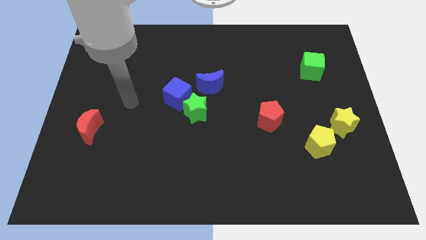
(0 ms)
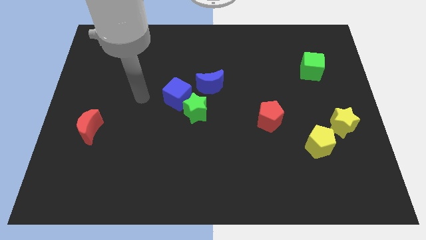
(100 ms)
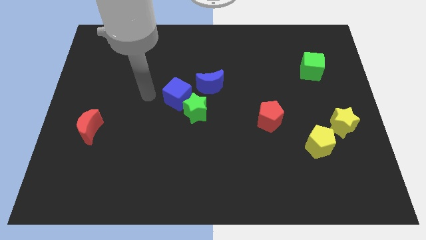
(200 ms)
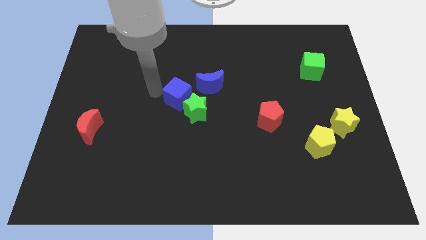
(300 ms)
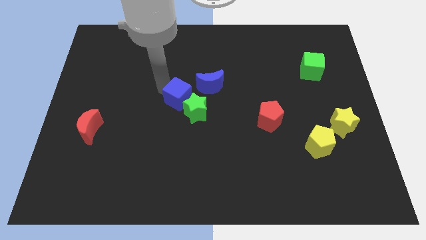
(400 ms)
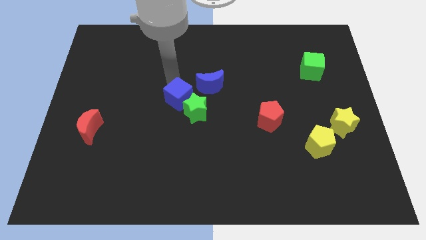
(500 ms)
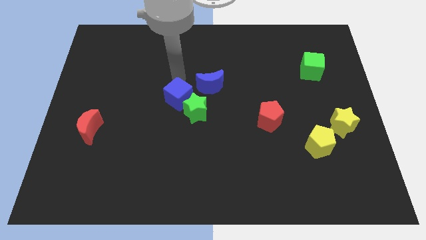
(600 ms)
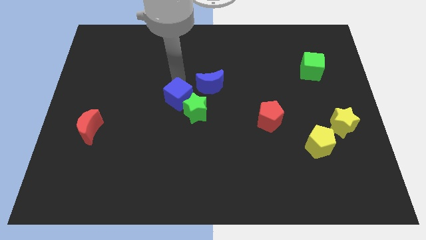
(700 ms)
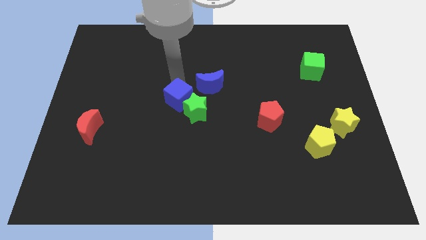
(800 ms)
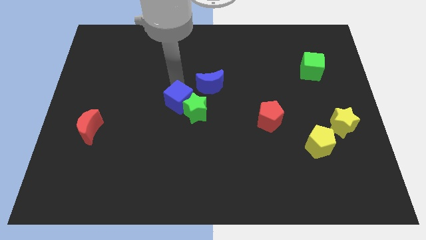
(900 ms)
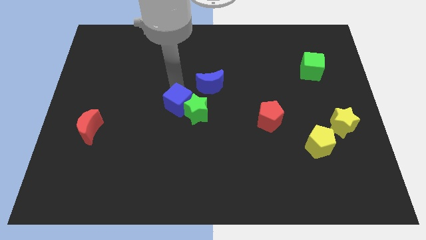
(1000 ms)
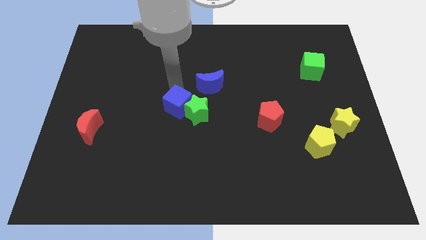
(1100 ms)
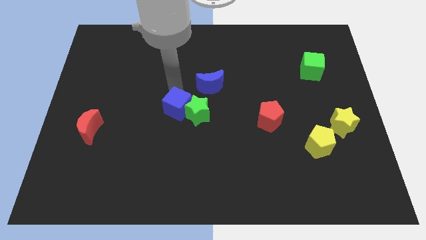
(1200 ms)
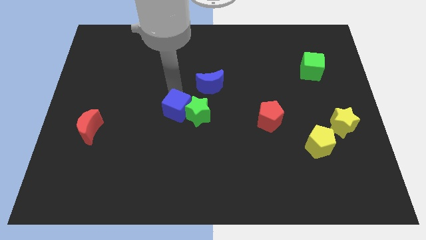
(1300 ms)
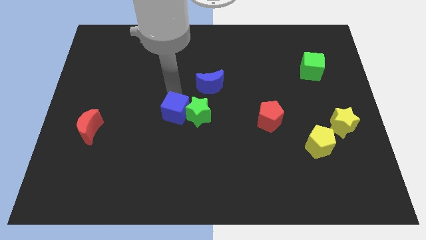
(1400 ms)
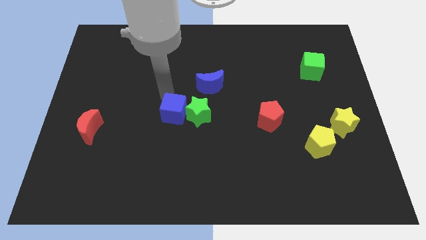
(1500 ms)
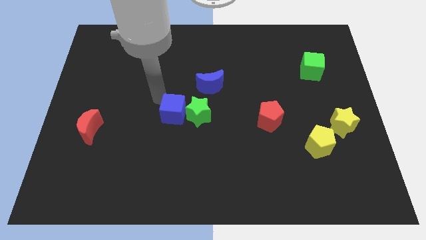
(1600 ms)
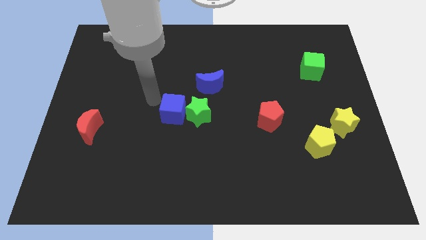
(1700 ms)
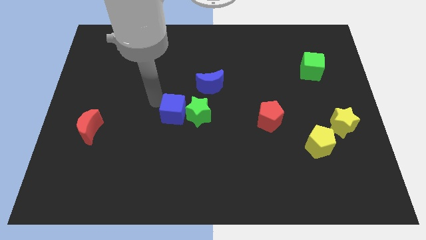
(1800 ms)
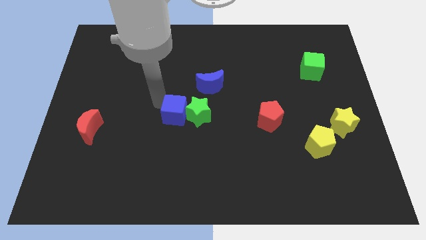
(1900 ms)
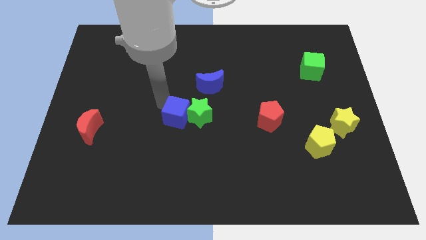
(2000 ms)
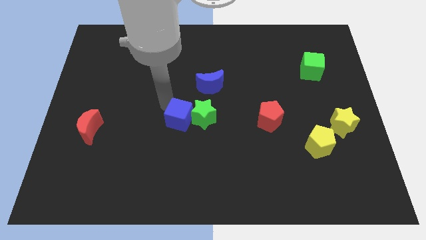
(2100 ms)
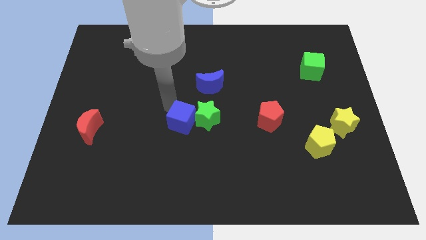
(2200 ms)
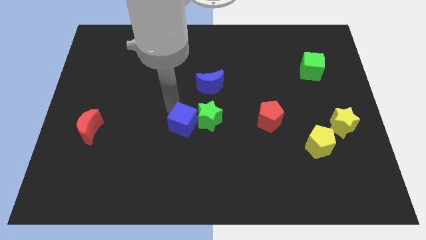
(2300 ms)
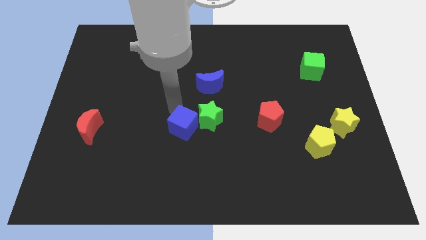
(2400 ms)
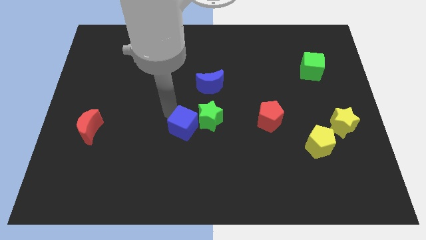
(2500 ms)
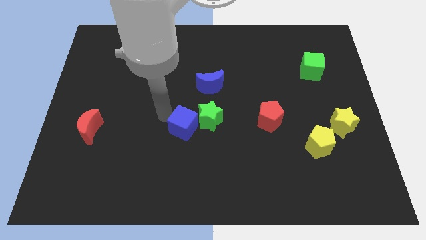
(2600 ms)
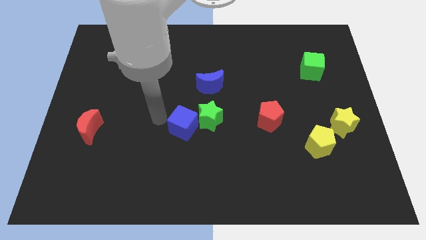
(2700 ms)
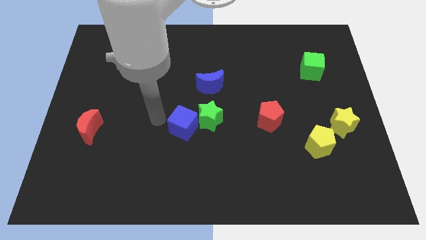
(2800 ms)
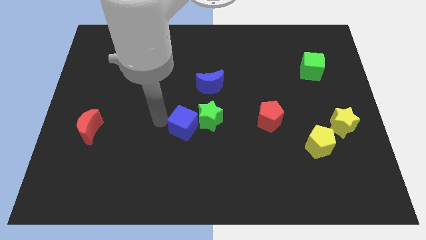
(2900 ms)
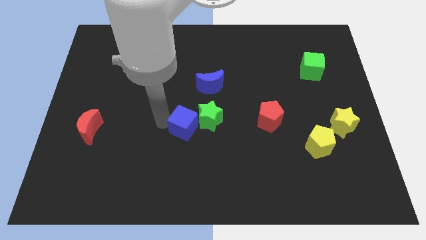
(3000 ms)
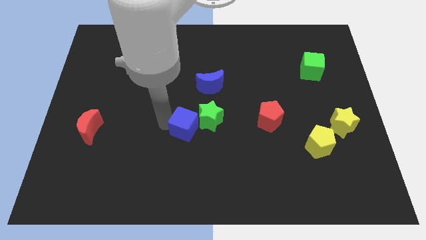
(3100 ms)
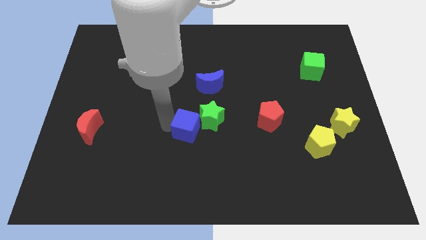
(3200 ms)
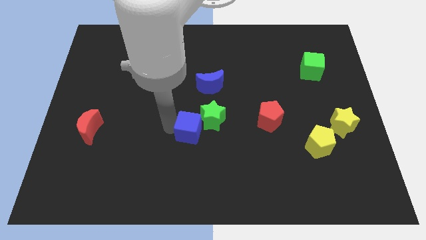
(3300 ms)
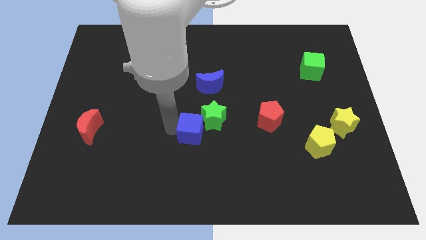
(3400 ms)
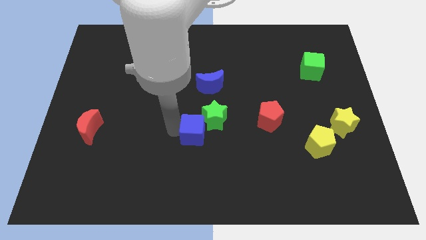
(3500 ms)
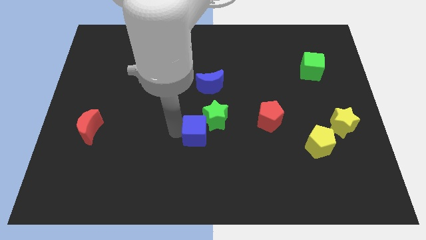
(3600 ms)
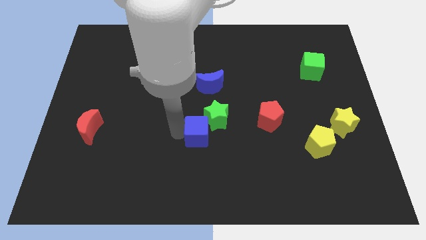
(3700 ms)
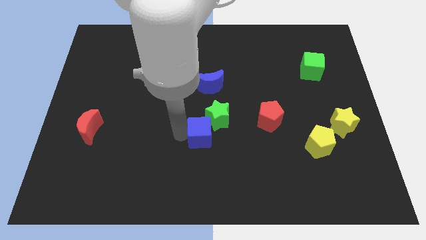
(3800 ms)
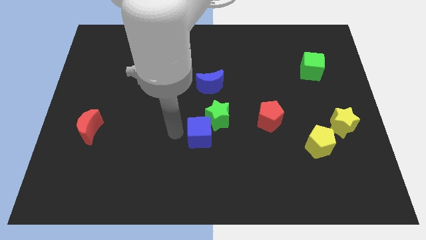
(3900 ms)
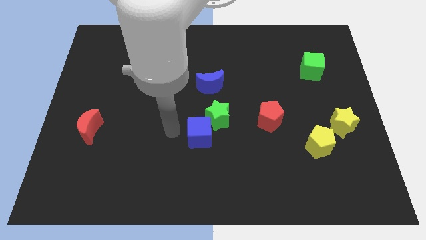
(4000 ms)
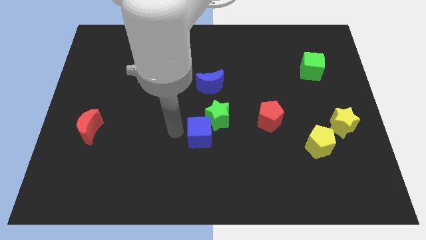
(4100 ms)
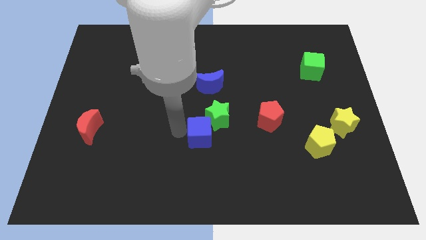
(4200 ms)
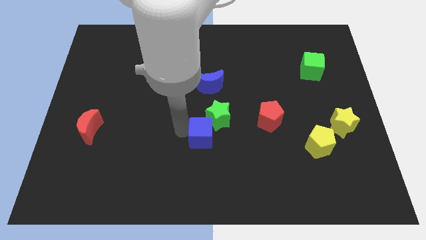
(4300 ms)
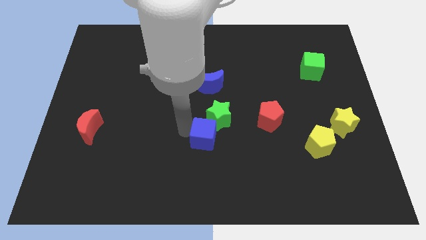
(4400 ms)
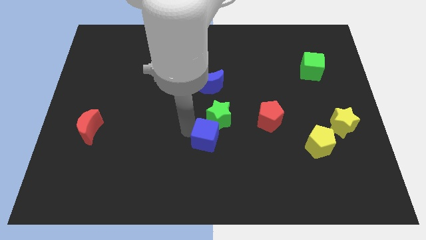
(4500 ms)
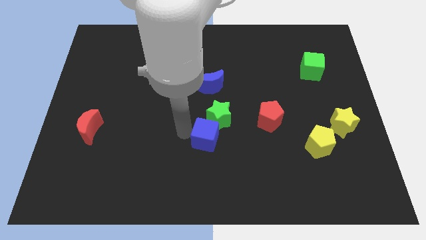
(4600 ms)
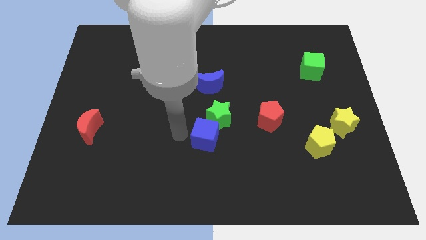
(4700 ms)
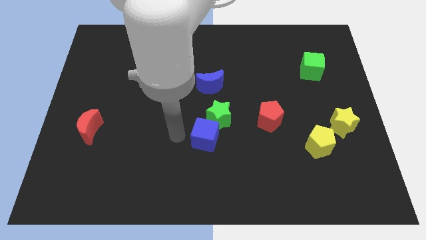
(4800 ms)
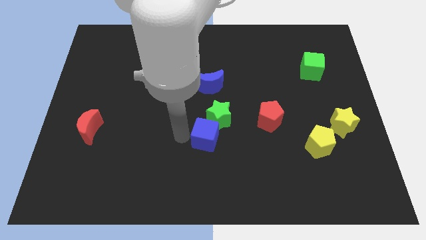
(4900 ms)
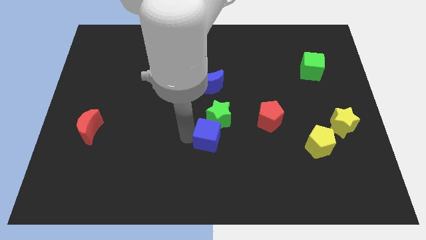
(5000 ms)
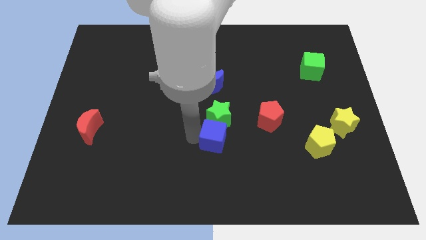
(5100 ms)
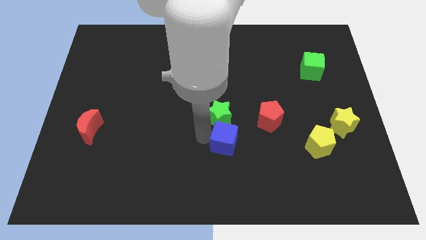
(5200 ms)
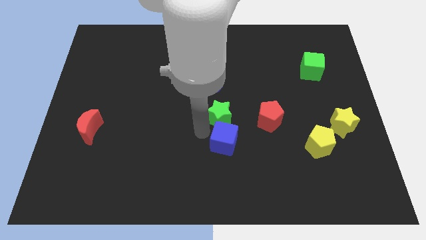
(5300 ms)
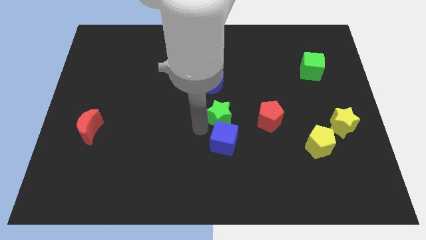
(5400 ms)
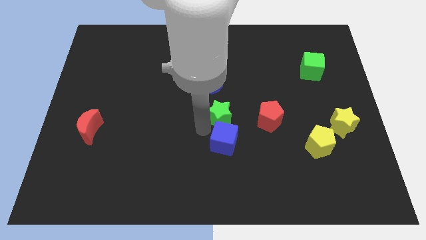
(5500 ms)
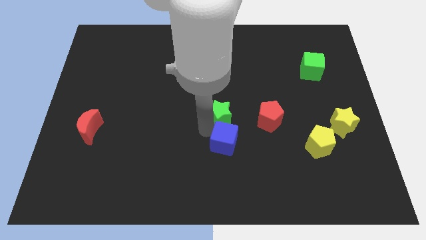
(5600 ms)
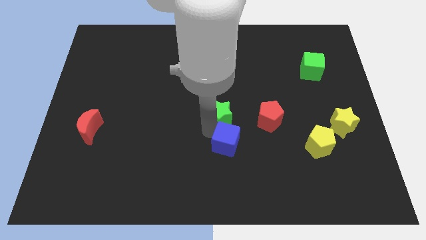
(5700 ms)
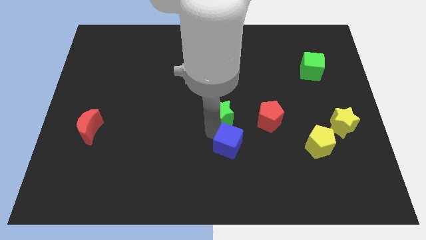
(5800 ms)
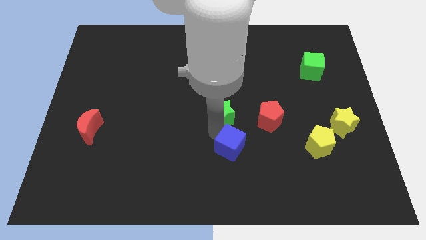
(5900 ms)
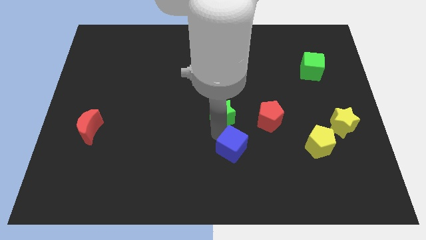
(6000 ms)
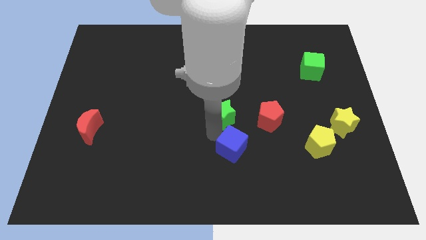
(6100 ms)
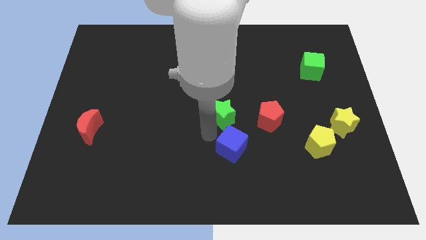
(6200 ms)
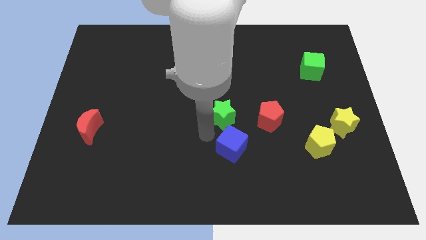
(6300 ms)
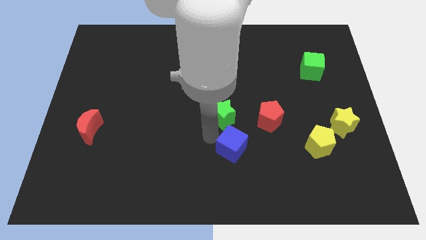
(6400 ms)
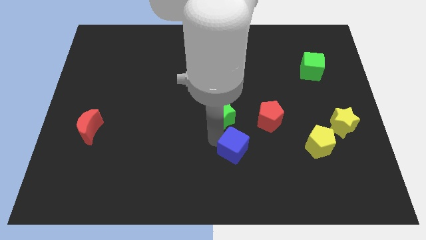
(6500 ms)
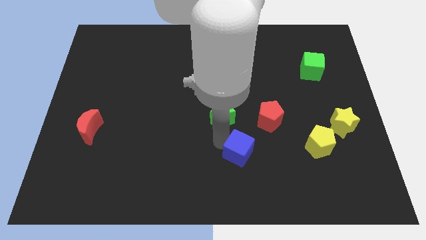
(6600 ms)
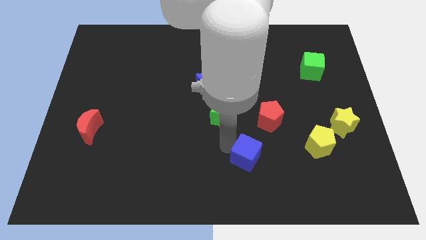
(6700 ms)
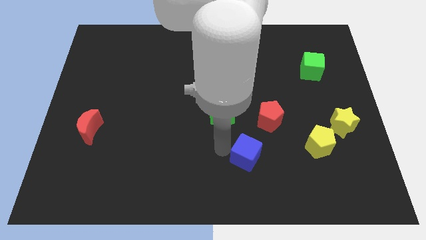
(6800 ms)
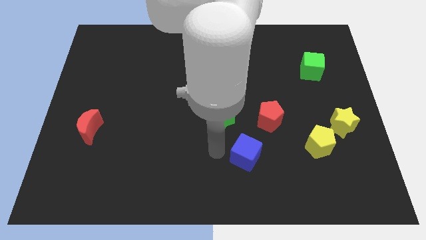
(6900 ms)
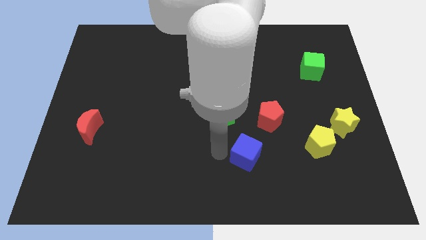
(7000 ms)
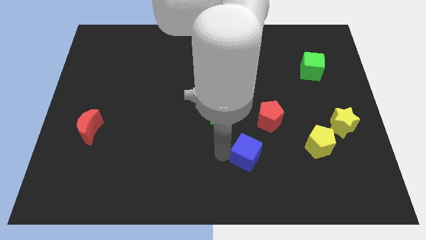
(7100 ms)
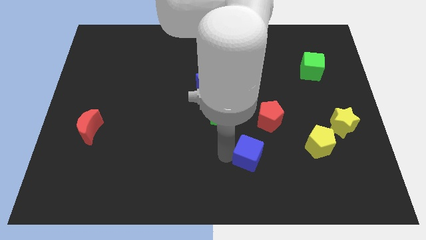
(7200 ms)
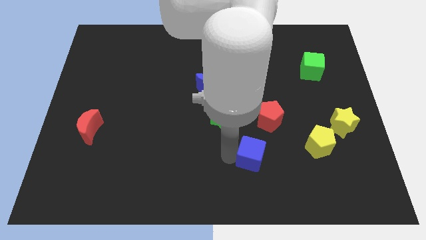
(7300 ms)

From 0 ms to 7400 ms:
slide the blue cube to the bottom side of the red pentagon
